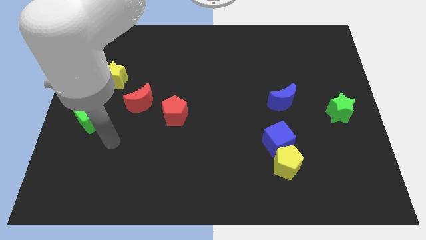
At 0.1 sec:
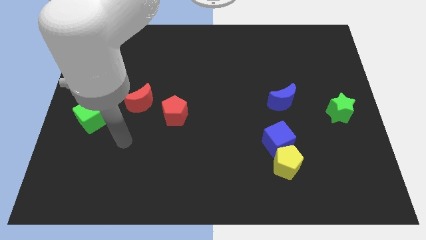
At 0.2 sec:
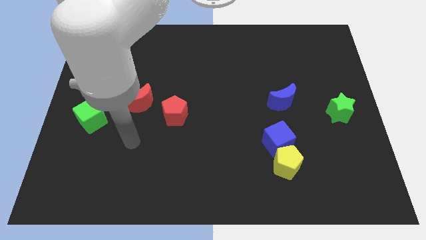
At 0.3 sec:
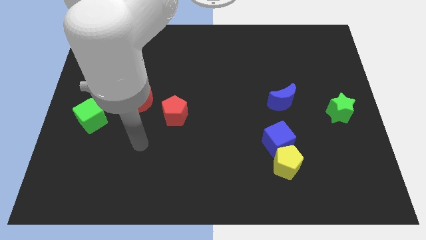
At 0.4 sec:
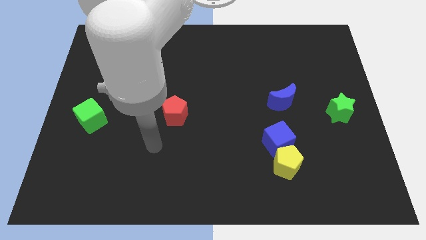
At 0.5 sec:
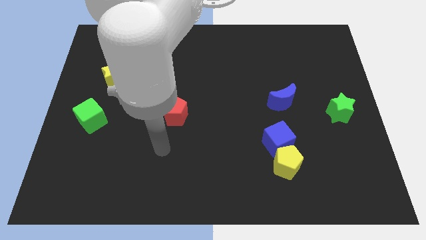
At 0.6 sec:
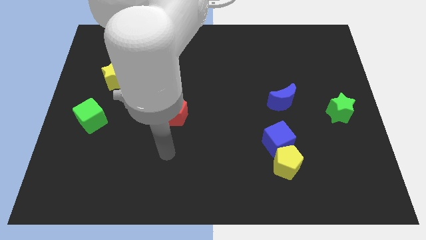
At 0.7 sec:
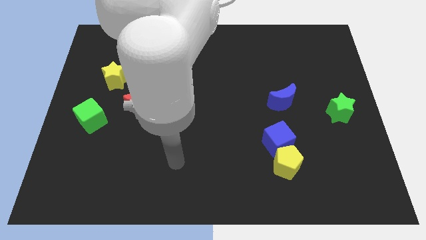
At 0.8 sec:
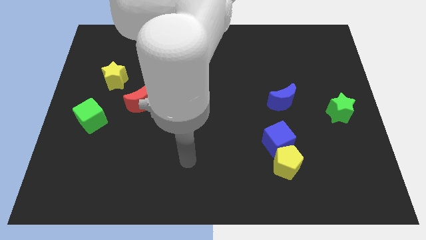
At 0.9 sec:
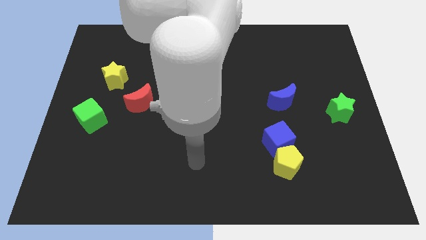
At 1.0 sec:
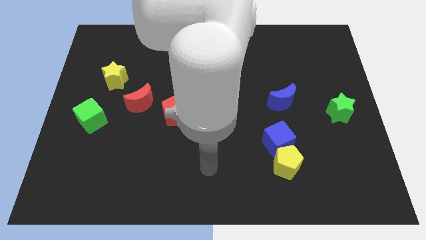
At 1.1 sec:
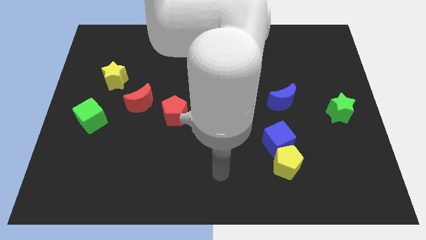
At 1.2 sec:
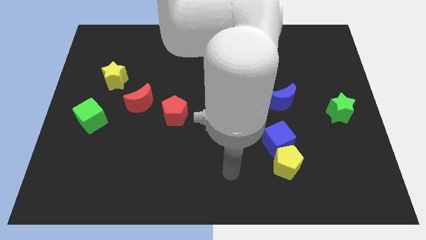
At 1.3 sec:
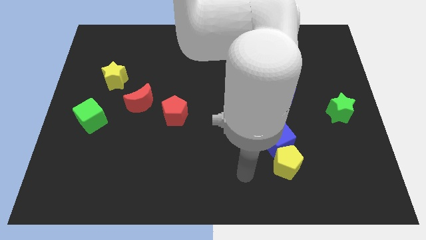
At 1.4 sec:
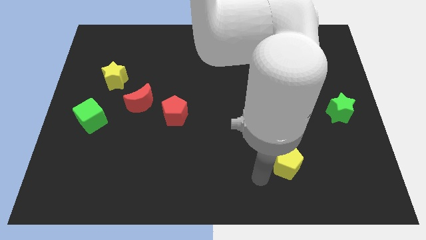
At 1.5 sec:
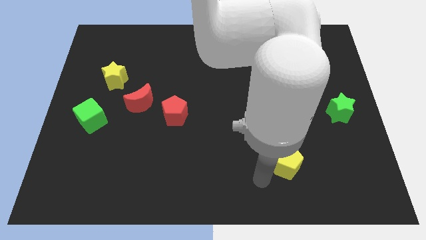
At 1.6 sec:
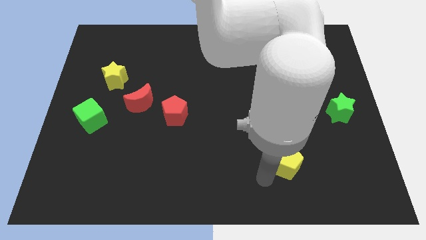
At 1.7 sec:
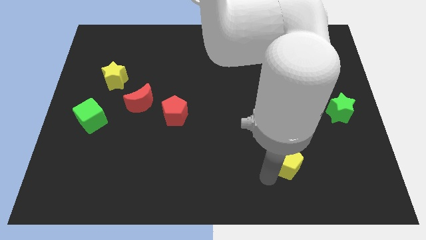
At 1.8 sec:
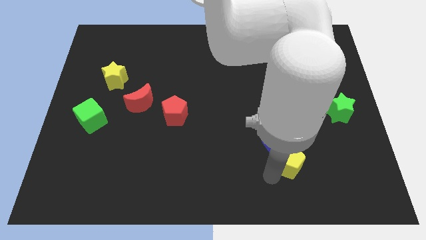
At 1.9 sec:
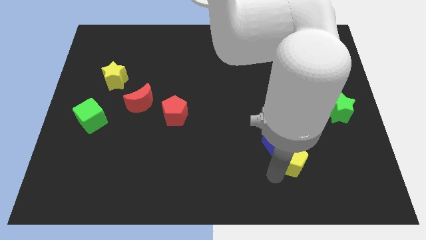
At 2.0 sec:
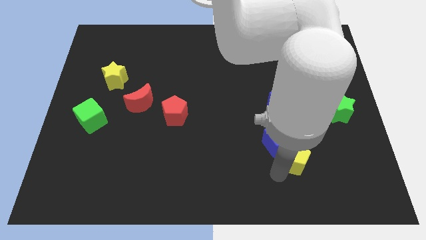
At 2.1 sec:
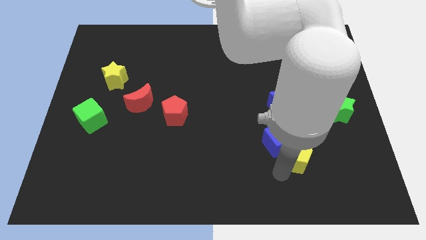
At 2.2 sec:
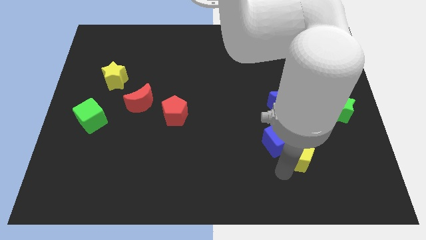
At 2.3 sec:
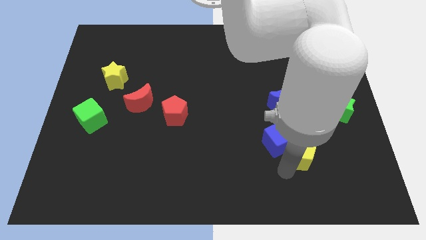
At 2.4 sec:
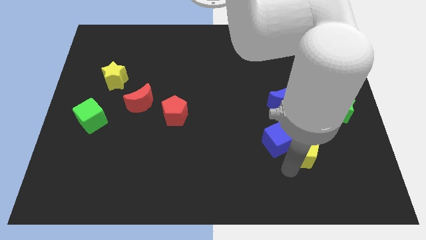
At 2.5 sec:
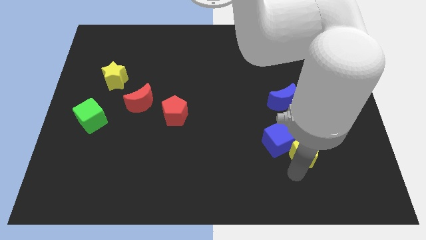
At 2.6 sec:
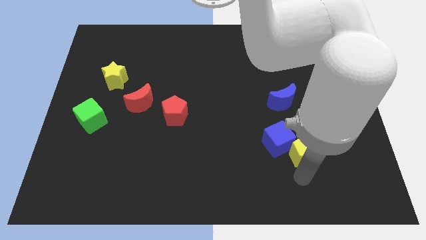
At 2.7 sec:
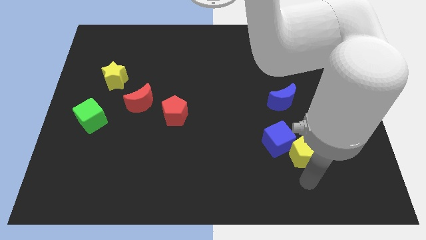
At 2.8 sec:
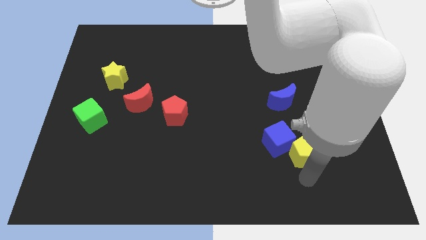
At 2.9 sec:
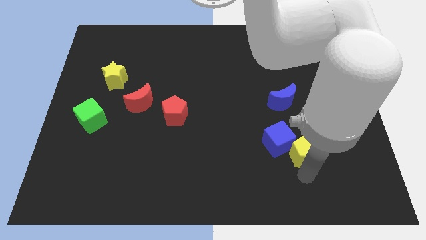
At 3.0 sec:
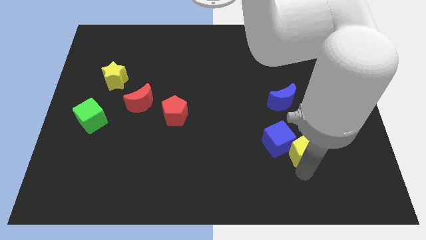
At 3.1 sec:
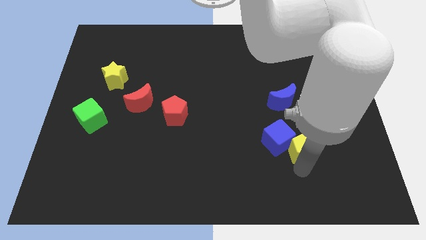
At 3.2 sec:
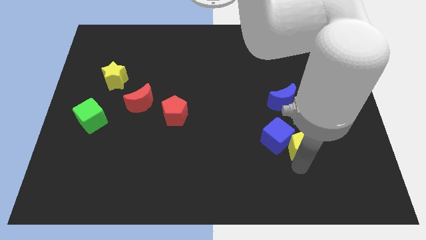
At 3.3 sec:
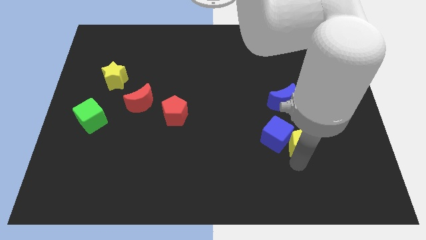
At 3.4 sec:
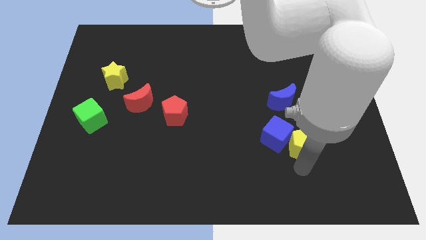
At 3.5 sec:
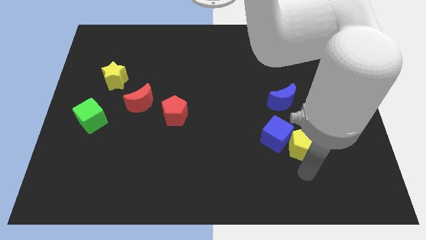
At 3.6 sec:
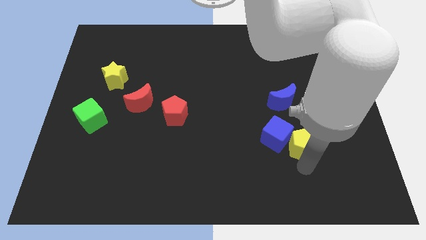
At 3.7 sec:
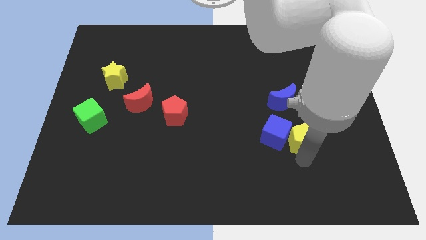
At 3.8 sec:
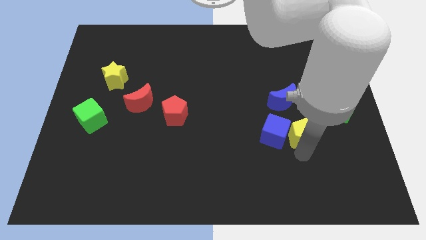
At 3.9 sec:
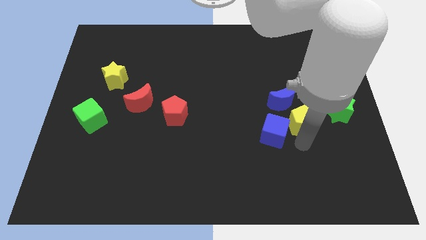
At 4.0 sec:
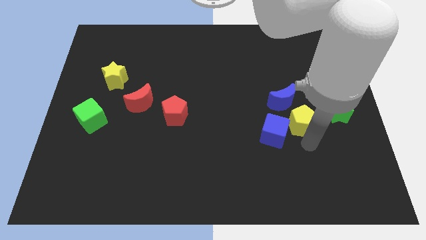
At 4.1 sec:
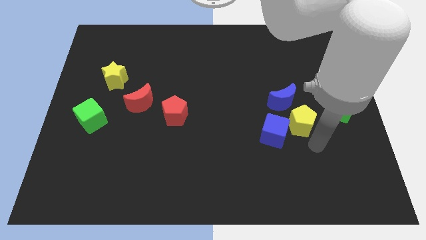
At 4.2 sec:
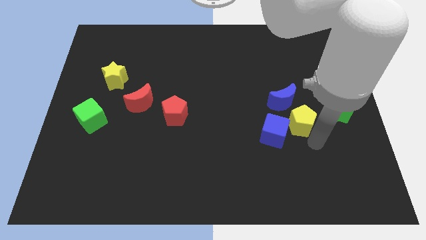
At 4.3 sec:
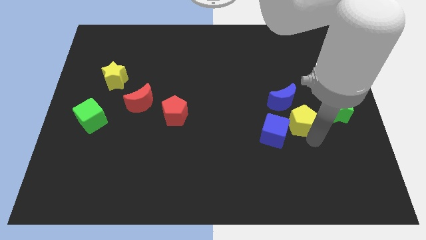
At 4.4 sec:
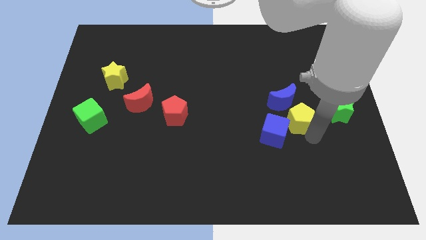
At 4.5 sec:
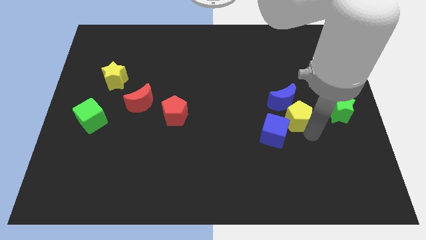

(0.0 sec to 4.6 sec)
move the yellow pentagon close to the blue moon

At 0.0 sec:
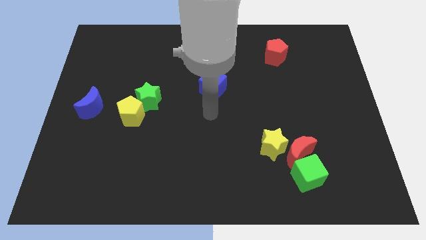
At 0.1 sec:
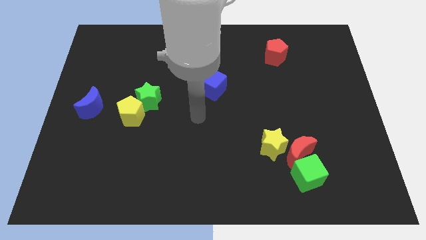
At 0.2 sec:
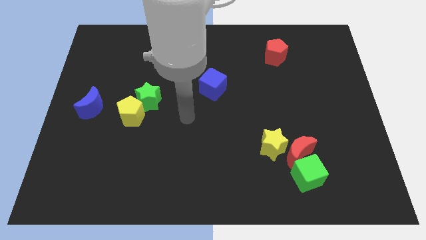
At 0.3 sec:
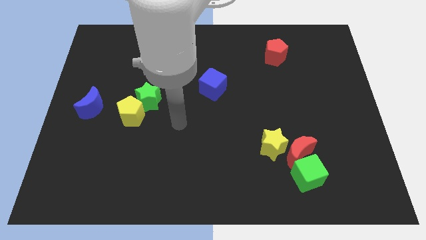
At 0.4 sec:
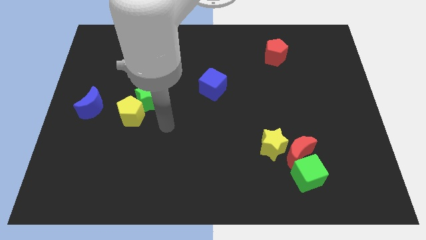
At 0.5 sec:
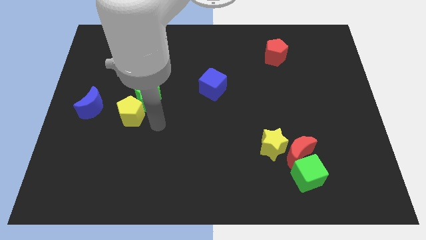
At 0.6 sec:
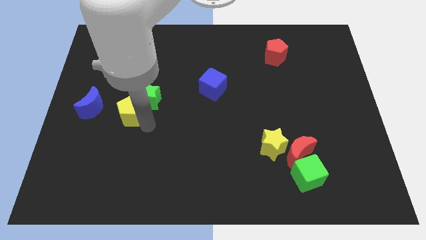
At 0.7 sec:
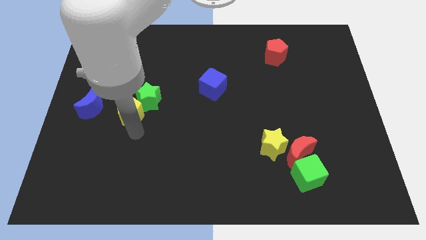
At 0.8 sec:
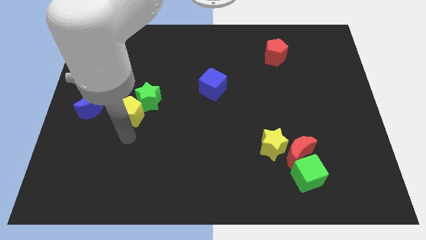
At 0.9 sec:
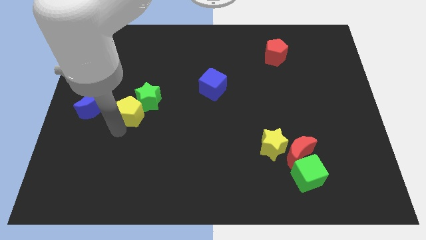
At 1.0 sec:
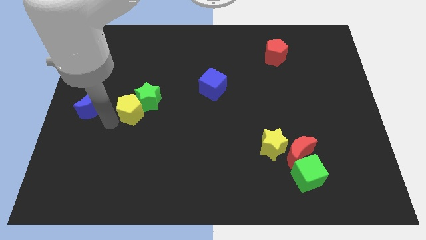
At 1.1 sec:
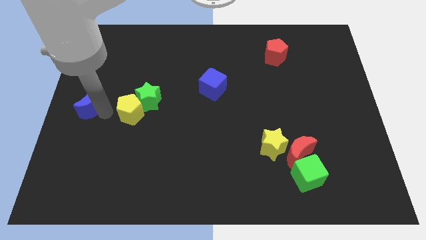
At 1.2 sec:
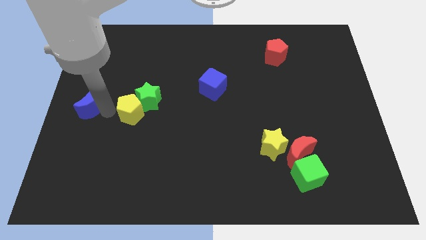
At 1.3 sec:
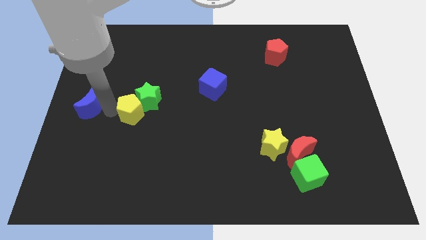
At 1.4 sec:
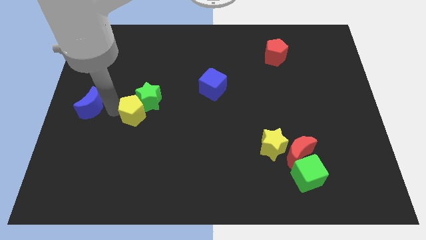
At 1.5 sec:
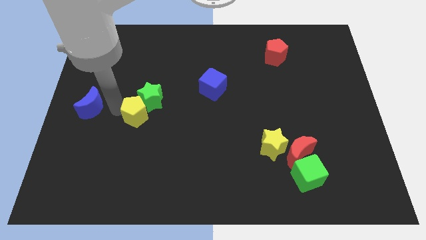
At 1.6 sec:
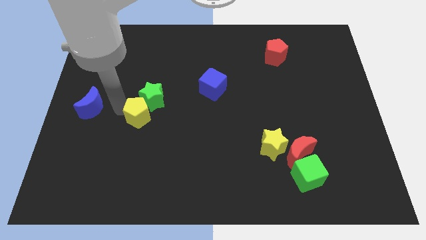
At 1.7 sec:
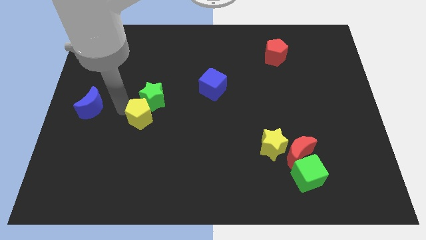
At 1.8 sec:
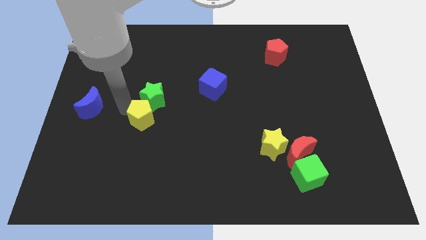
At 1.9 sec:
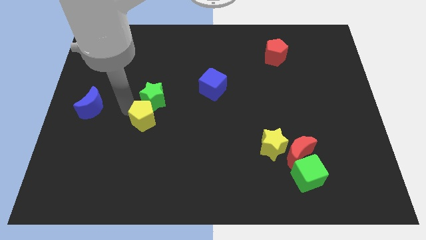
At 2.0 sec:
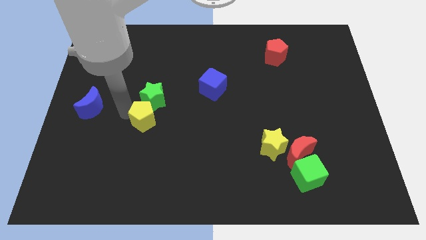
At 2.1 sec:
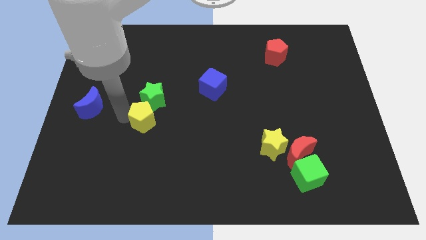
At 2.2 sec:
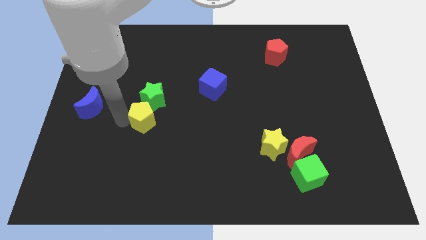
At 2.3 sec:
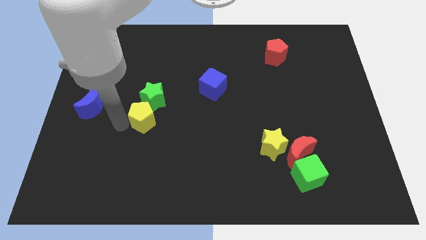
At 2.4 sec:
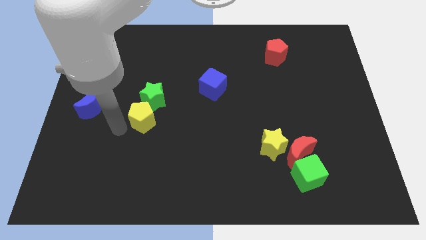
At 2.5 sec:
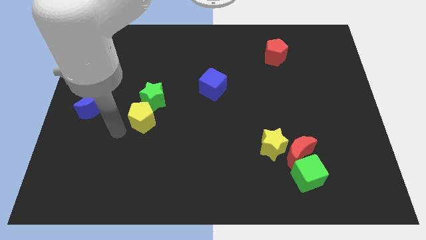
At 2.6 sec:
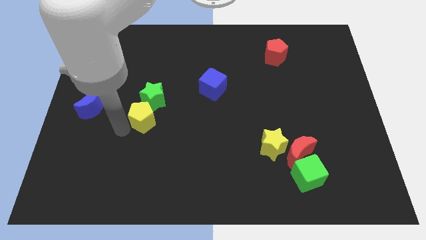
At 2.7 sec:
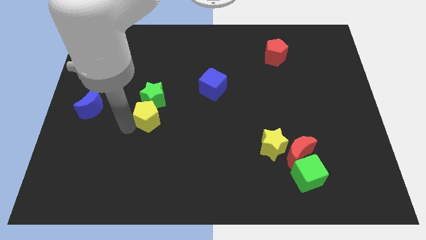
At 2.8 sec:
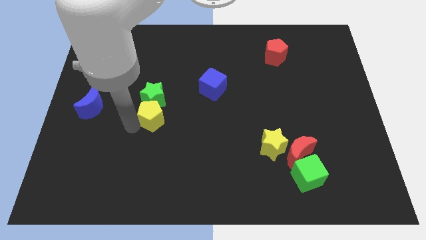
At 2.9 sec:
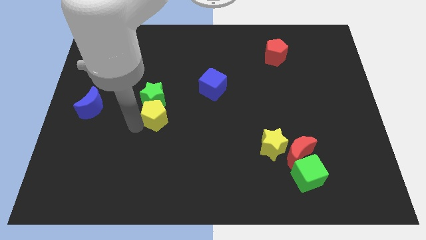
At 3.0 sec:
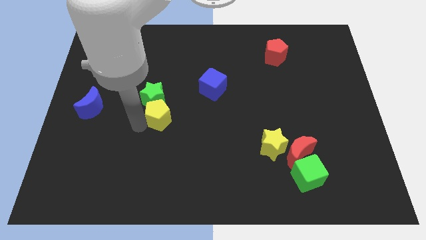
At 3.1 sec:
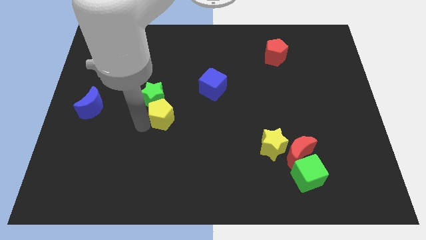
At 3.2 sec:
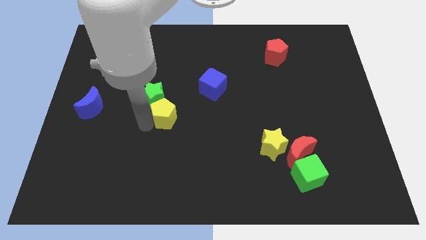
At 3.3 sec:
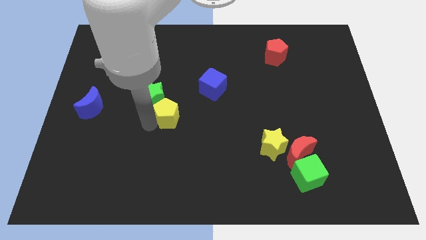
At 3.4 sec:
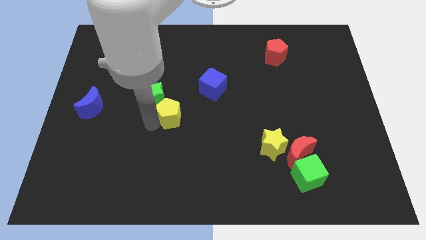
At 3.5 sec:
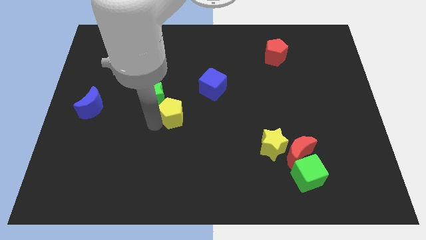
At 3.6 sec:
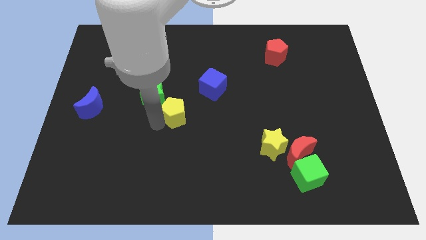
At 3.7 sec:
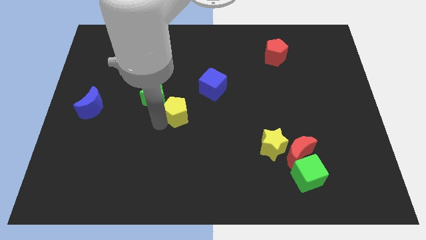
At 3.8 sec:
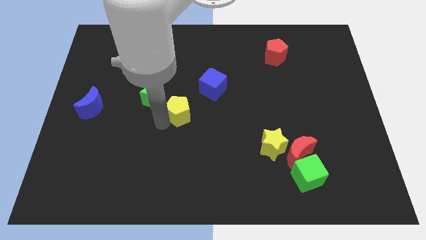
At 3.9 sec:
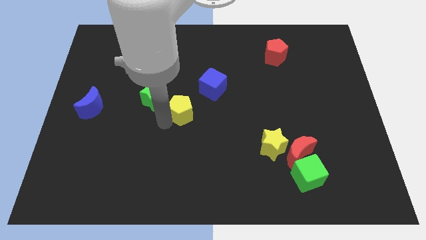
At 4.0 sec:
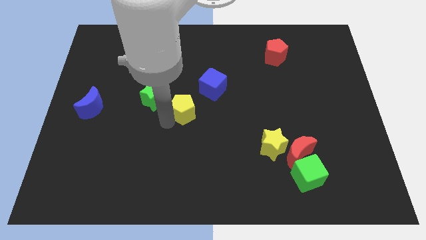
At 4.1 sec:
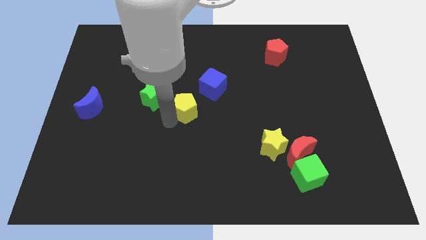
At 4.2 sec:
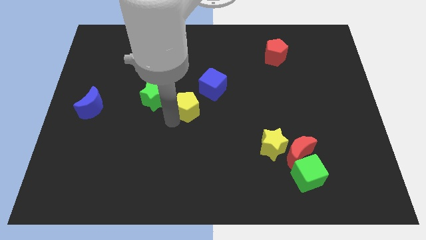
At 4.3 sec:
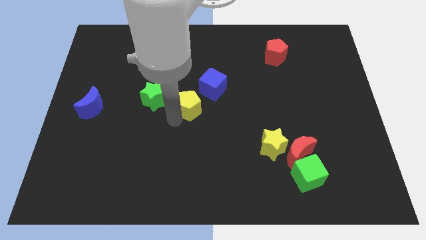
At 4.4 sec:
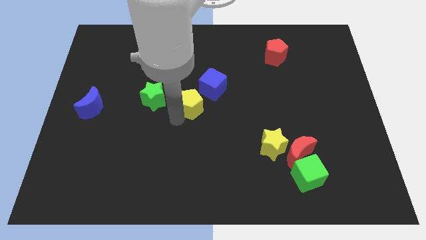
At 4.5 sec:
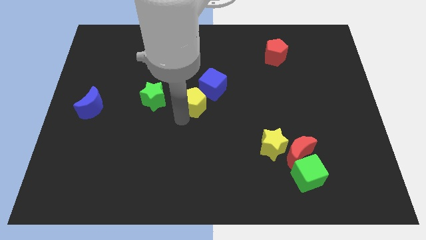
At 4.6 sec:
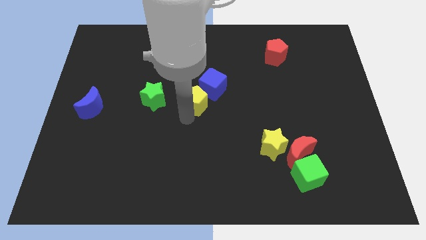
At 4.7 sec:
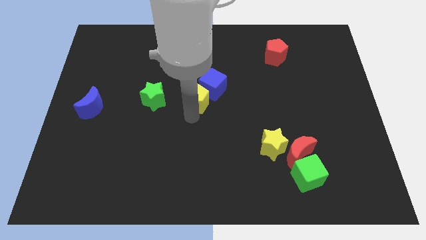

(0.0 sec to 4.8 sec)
move the yellow pentagon close to the blue cube
